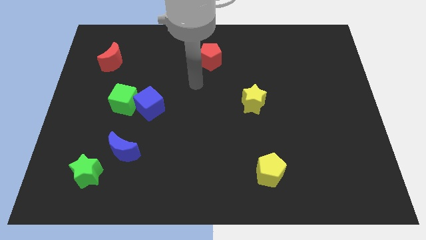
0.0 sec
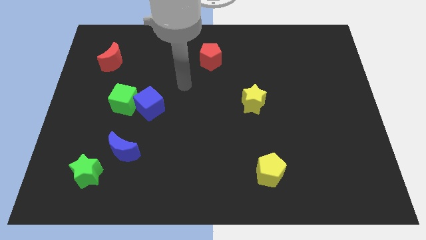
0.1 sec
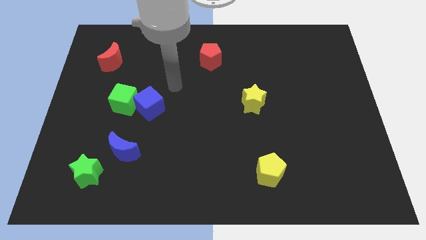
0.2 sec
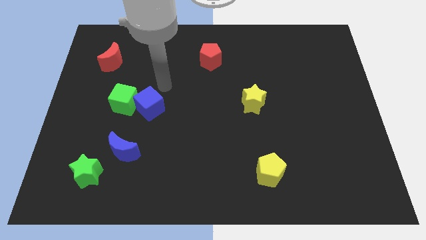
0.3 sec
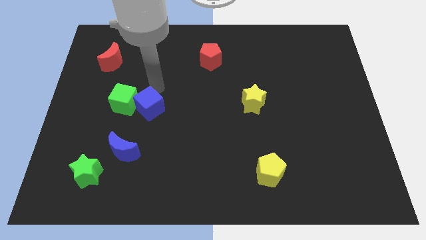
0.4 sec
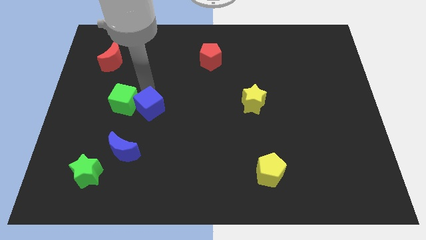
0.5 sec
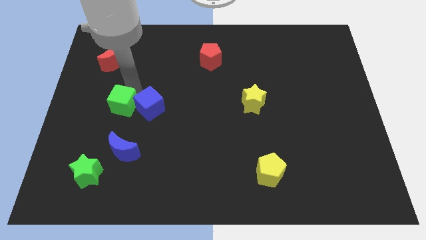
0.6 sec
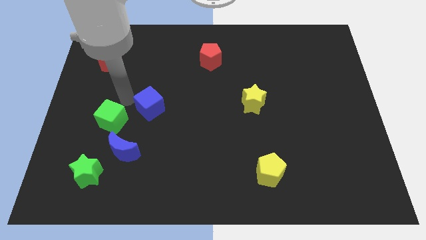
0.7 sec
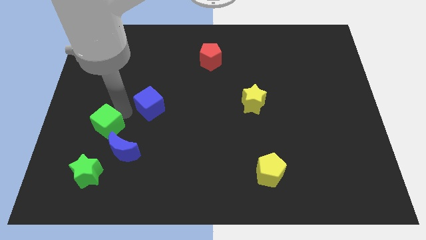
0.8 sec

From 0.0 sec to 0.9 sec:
separate the blue cube from the green cube

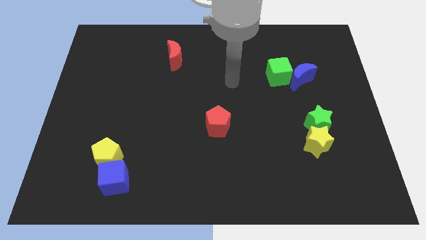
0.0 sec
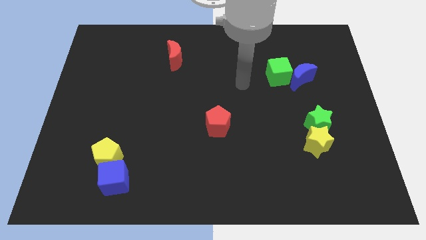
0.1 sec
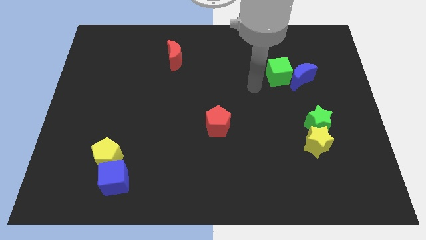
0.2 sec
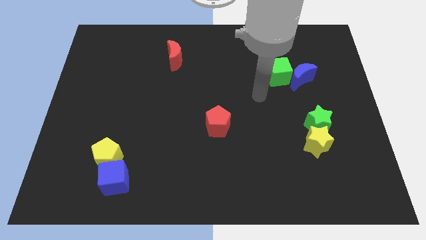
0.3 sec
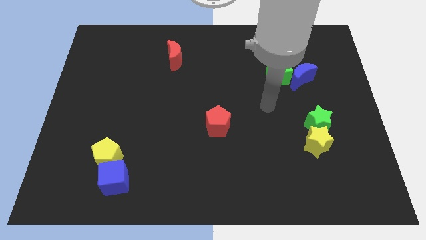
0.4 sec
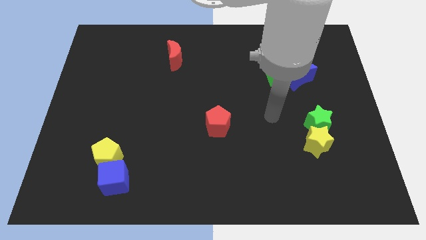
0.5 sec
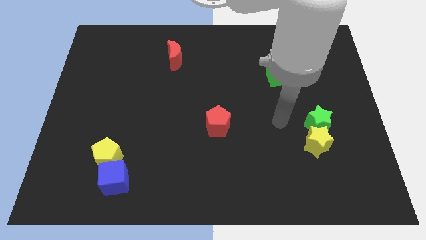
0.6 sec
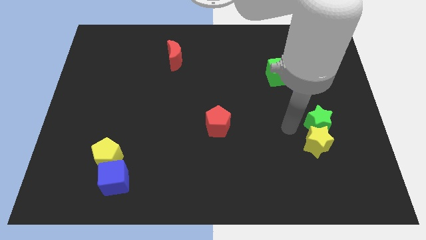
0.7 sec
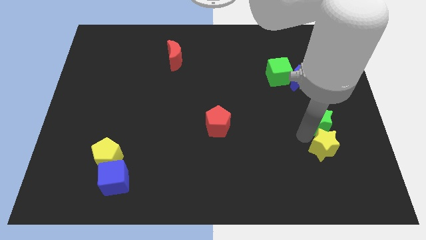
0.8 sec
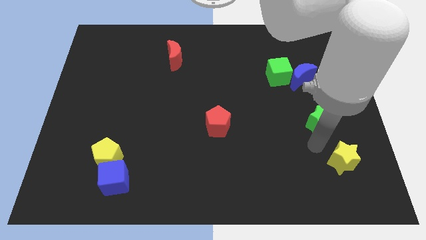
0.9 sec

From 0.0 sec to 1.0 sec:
pull the green star apart from the yellow star

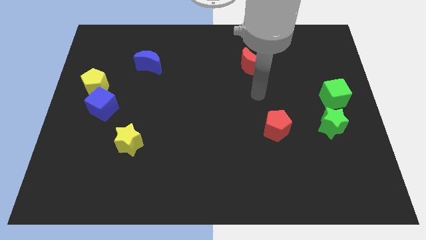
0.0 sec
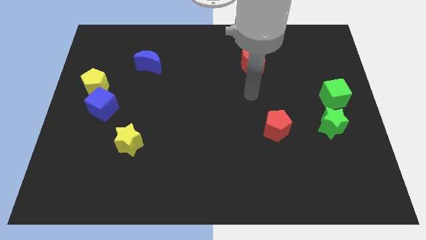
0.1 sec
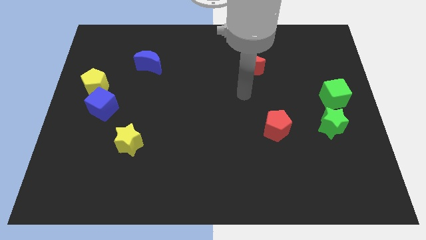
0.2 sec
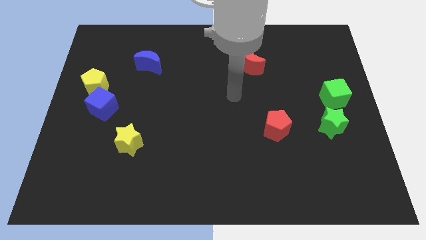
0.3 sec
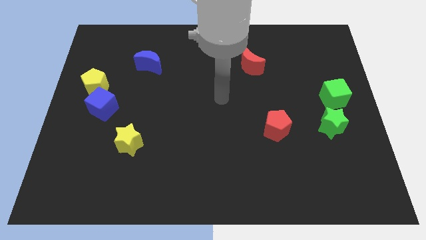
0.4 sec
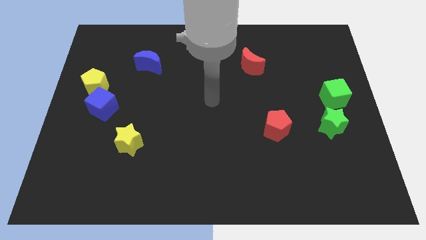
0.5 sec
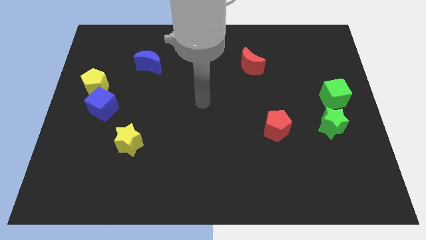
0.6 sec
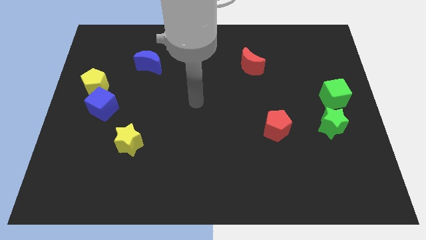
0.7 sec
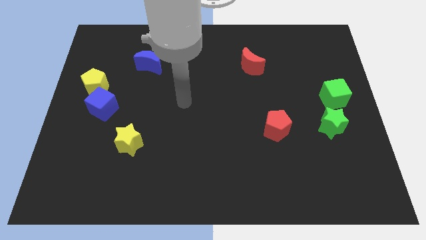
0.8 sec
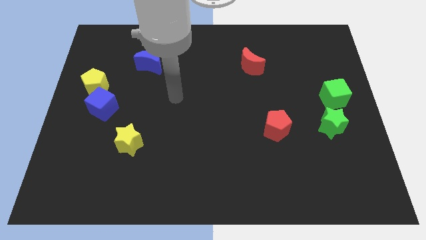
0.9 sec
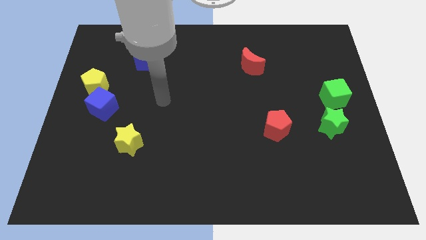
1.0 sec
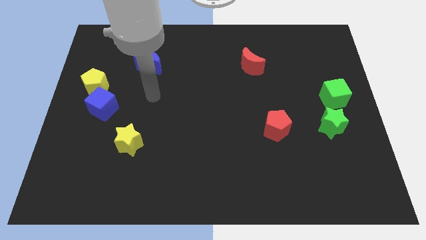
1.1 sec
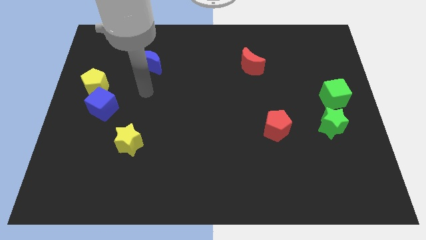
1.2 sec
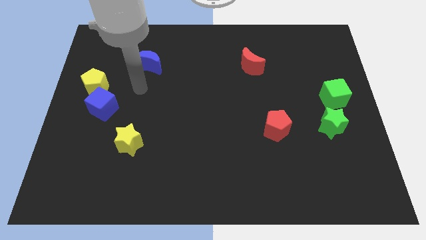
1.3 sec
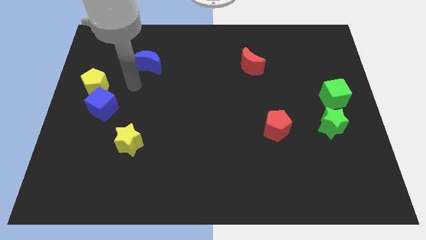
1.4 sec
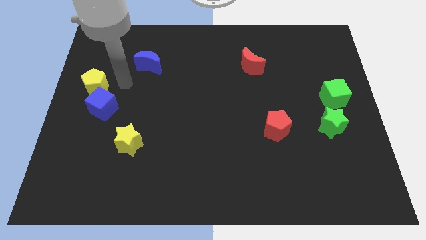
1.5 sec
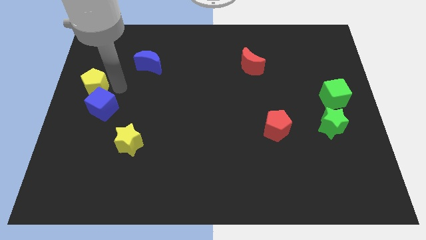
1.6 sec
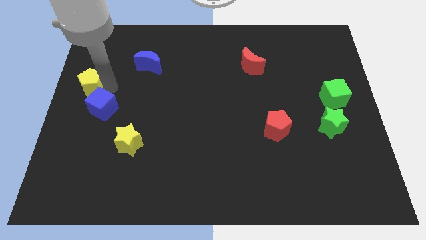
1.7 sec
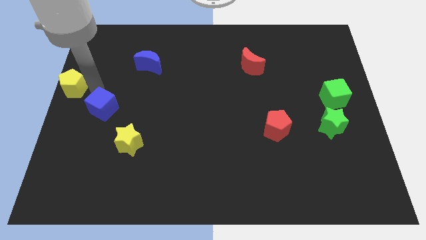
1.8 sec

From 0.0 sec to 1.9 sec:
pull the blue cube apart from the yellow pentagon

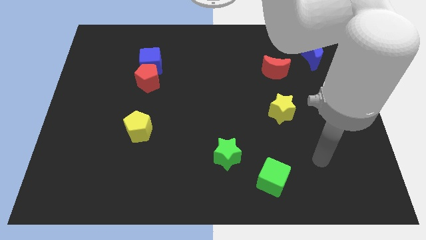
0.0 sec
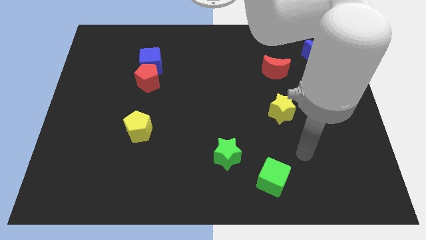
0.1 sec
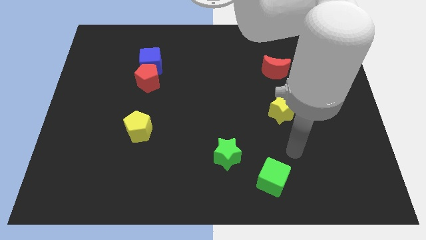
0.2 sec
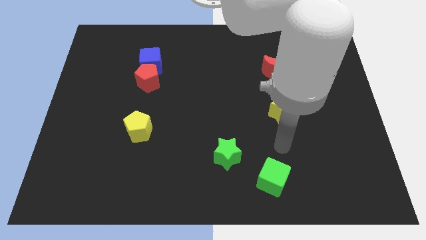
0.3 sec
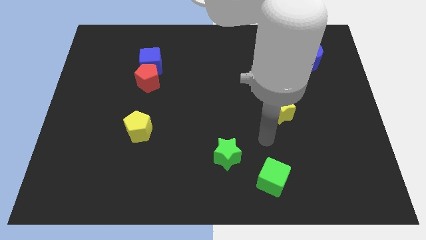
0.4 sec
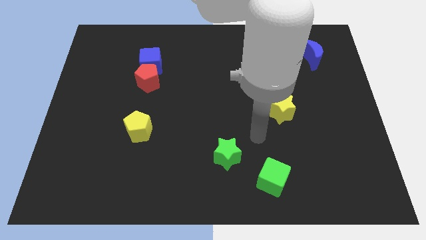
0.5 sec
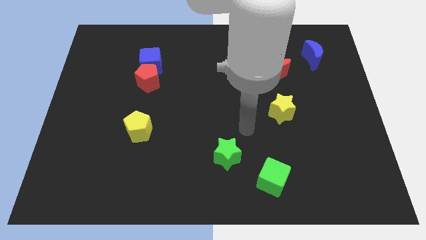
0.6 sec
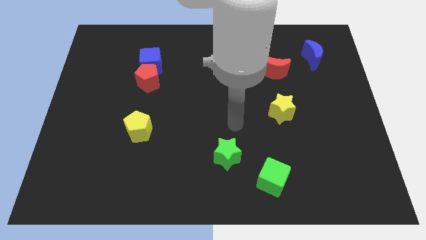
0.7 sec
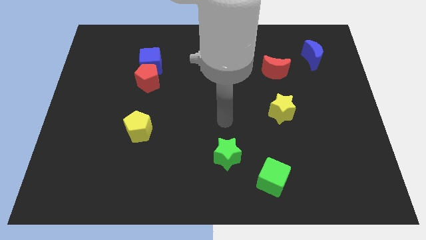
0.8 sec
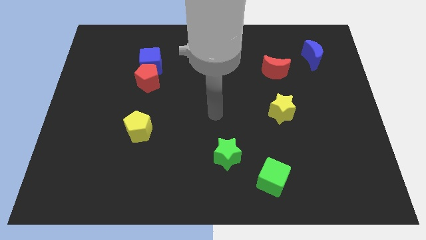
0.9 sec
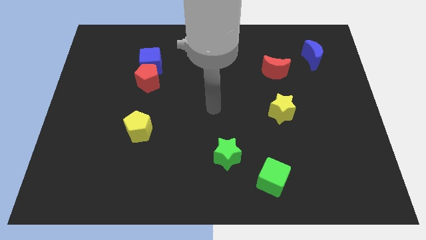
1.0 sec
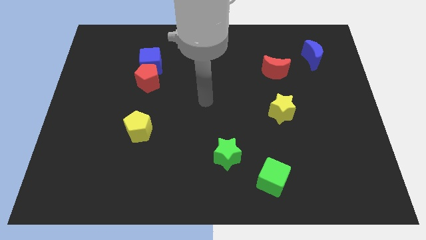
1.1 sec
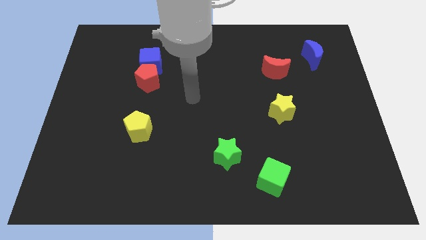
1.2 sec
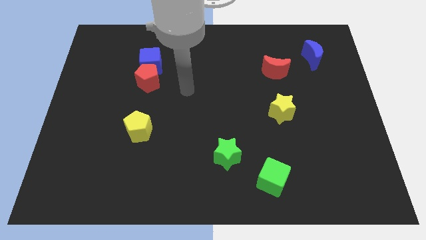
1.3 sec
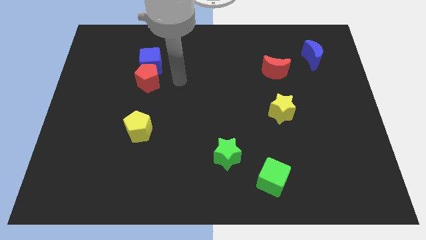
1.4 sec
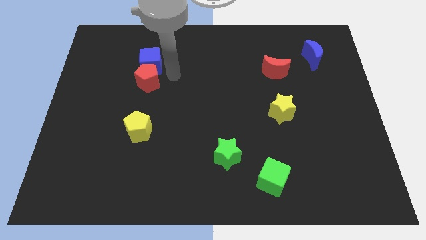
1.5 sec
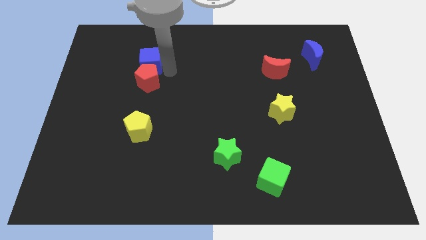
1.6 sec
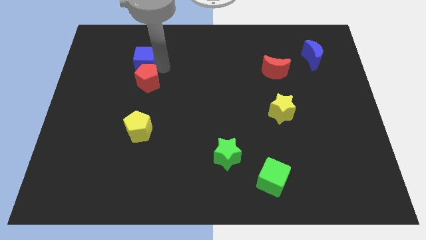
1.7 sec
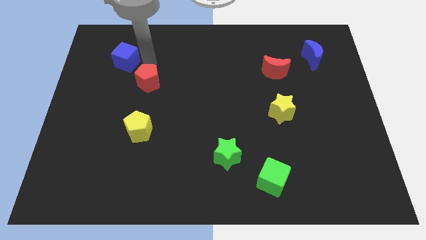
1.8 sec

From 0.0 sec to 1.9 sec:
separate the red pentagon from the blue cube

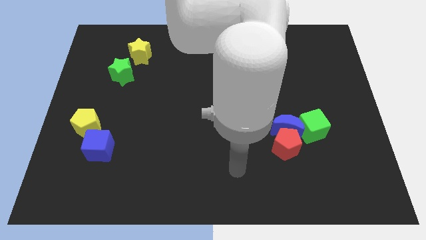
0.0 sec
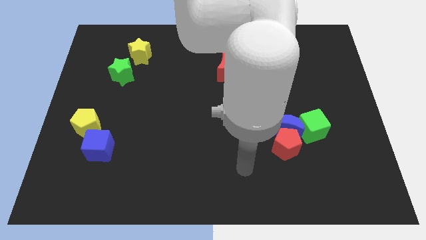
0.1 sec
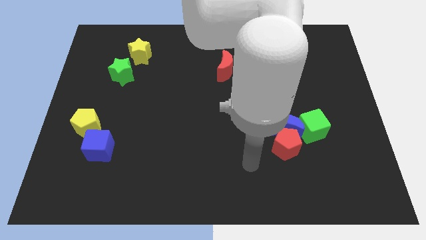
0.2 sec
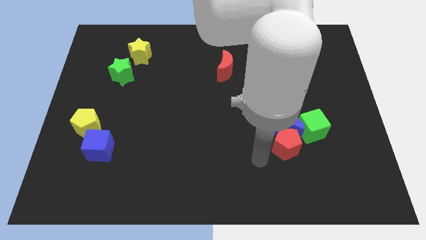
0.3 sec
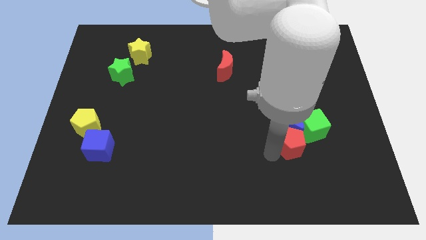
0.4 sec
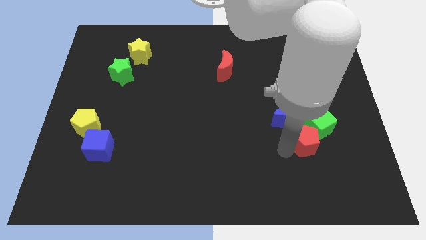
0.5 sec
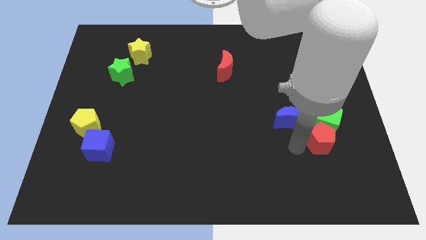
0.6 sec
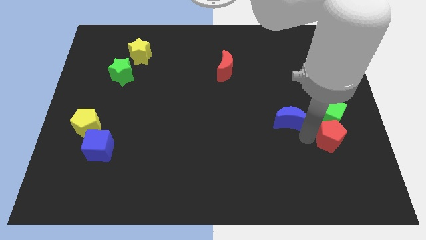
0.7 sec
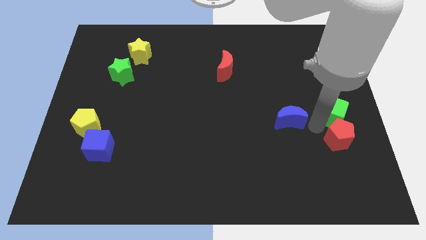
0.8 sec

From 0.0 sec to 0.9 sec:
move the blue moon away from the red pentagon and green cube

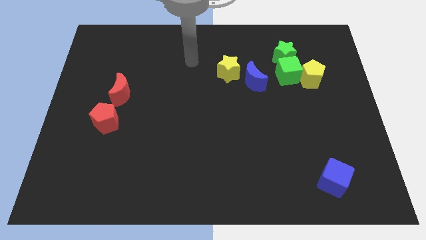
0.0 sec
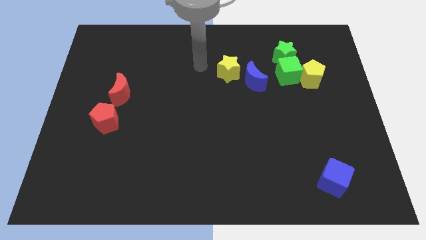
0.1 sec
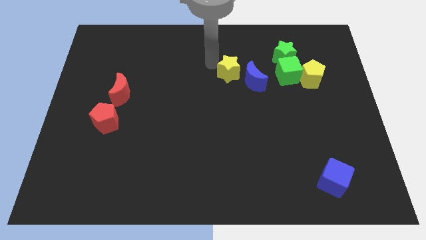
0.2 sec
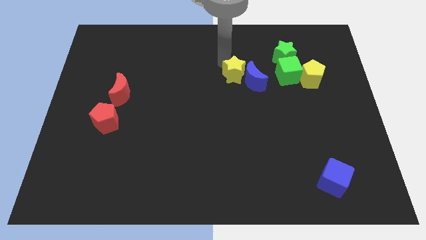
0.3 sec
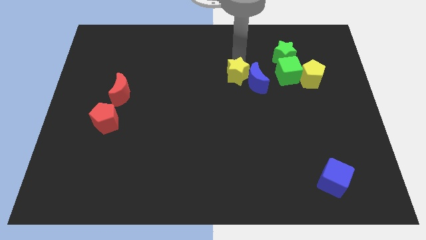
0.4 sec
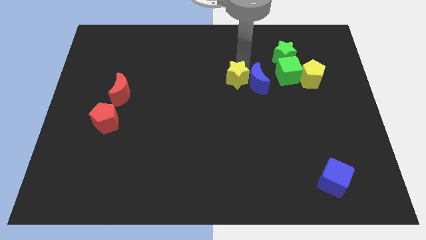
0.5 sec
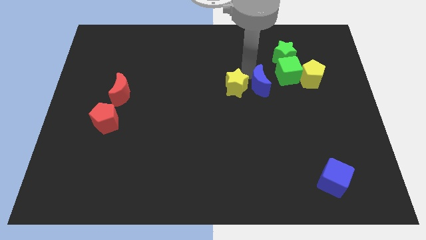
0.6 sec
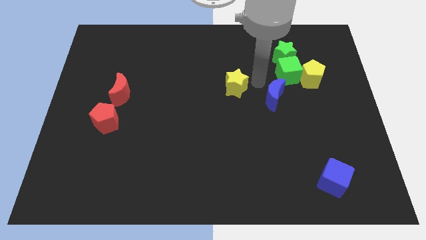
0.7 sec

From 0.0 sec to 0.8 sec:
separate the yellow star from the blue moon

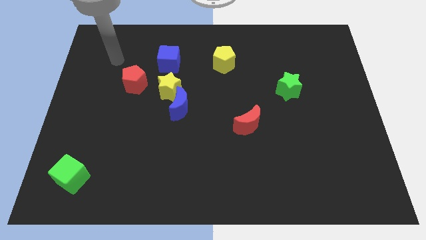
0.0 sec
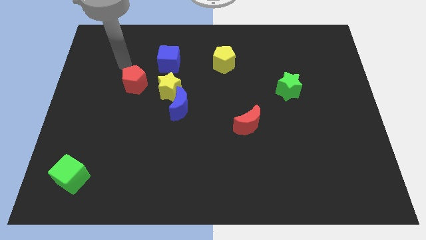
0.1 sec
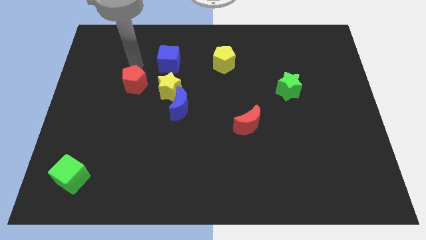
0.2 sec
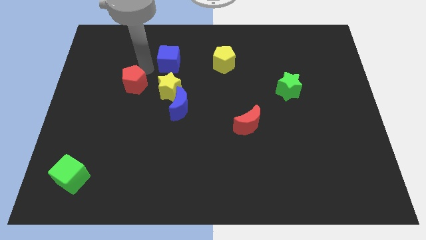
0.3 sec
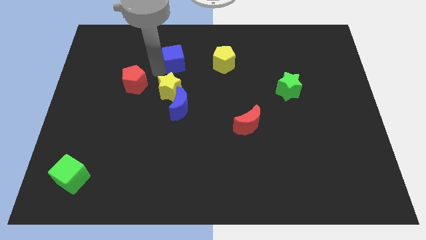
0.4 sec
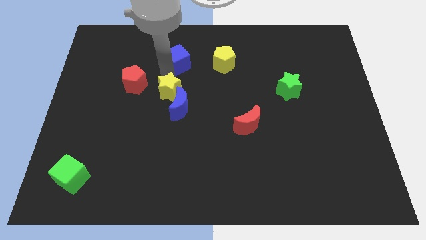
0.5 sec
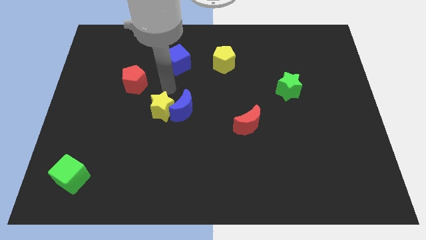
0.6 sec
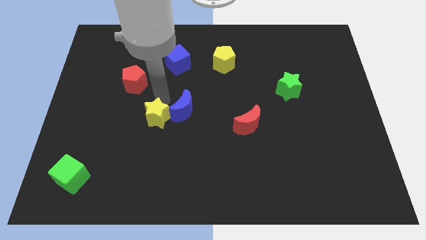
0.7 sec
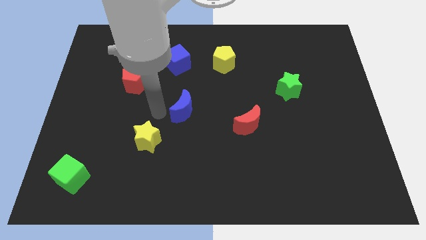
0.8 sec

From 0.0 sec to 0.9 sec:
pull the blue moon apart from the yellow star

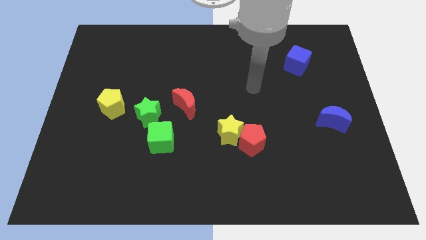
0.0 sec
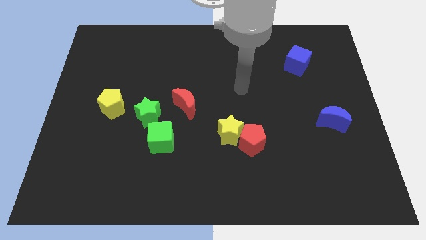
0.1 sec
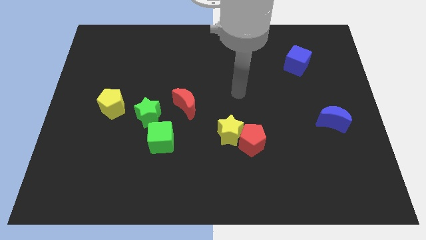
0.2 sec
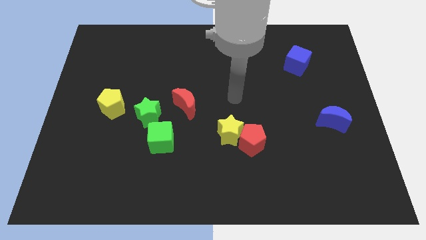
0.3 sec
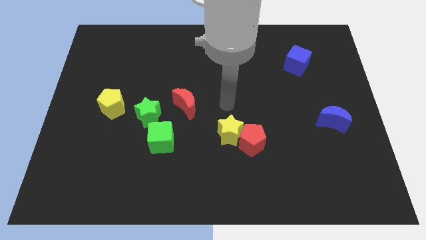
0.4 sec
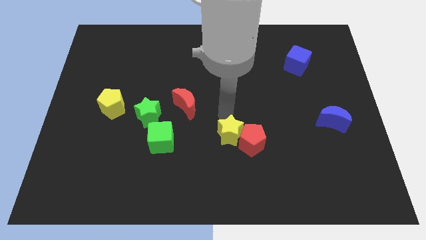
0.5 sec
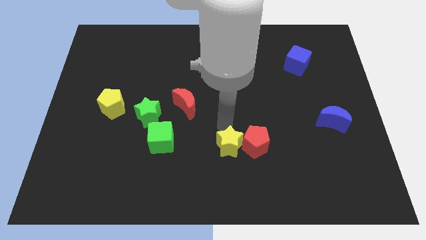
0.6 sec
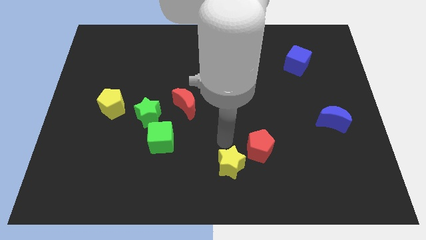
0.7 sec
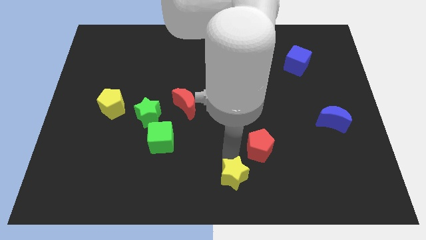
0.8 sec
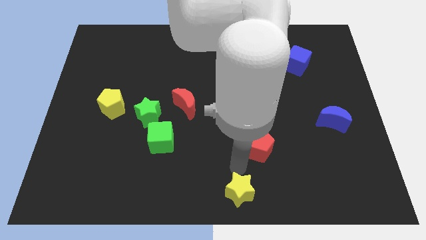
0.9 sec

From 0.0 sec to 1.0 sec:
move the red pentagon away from the yellow star
